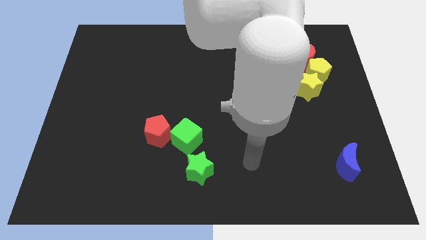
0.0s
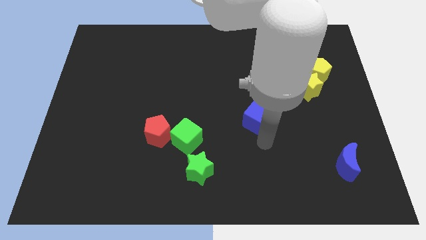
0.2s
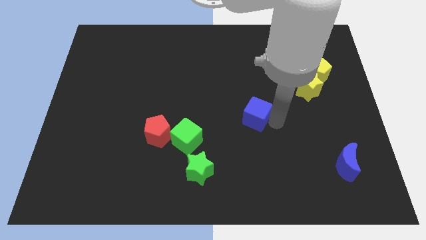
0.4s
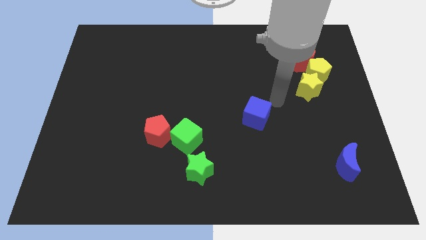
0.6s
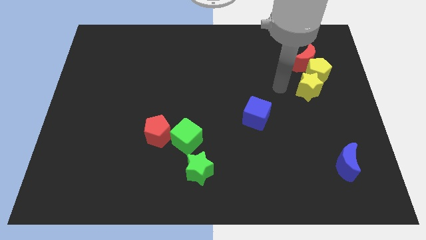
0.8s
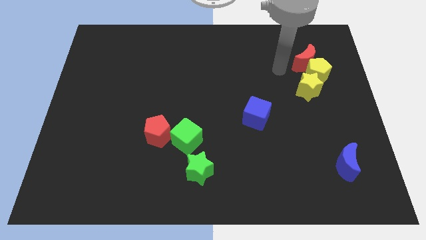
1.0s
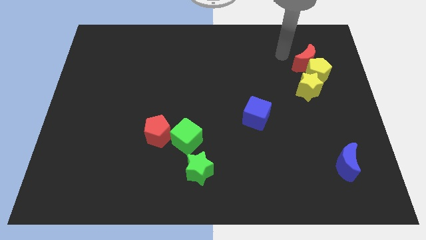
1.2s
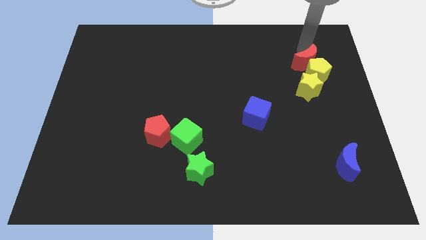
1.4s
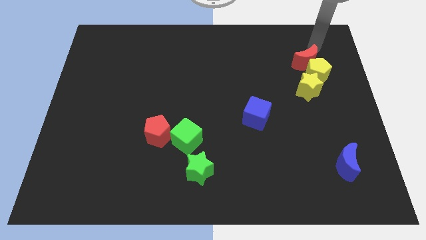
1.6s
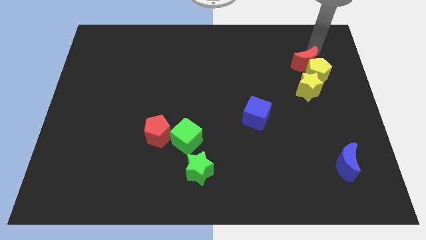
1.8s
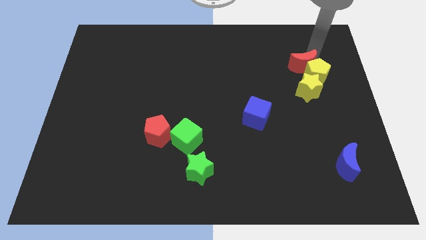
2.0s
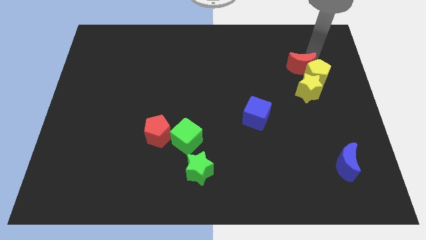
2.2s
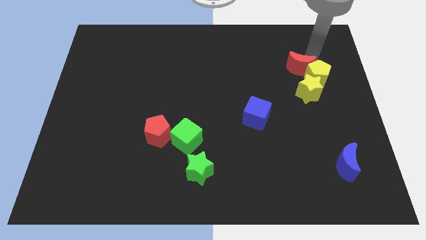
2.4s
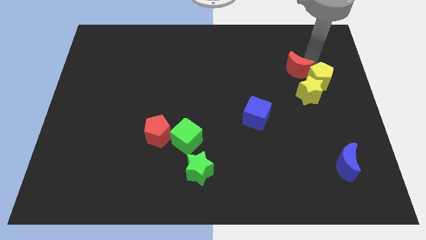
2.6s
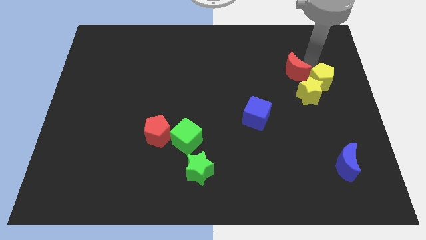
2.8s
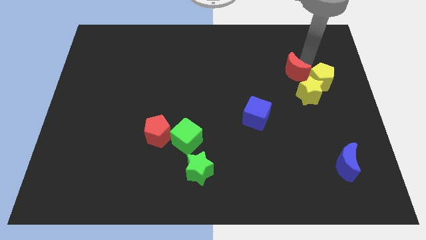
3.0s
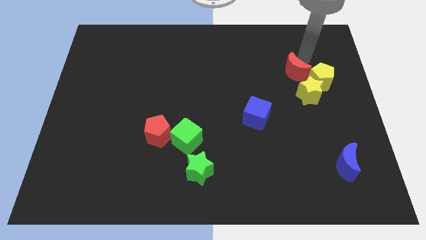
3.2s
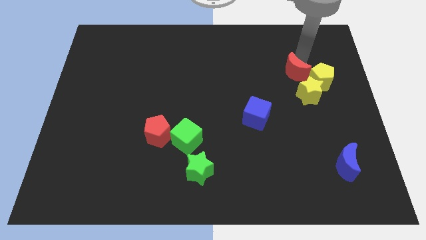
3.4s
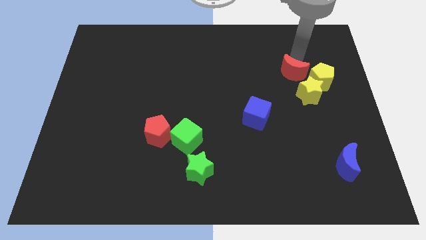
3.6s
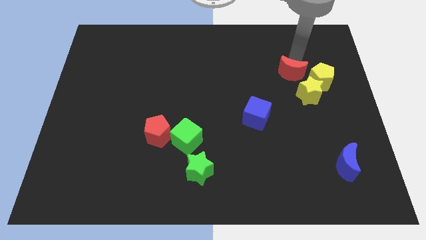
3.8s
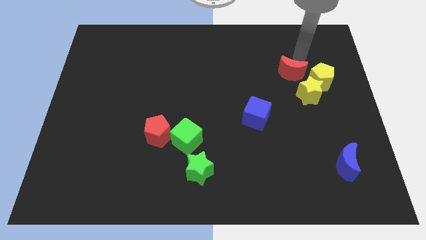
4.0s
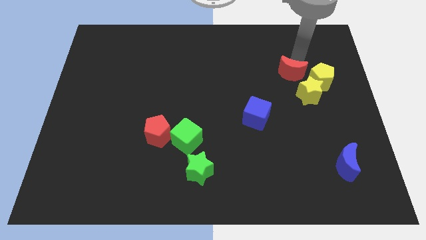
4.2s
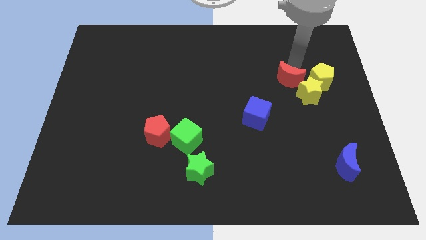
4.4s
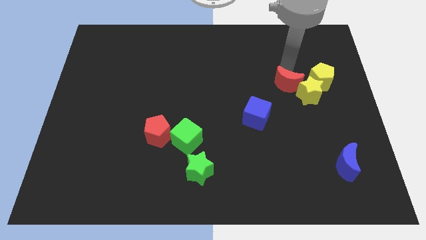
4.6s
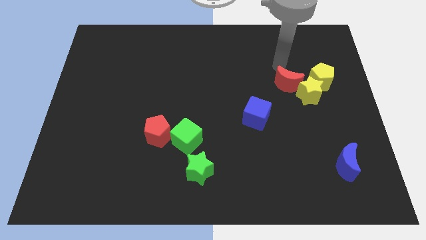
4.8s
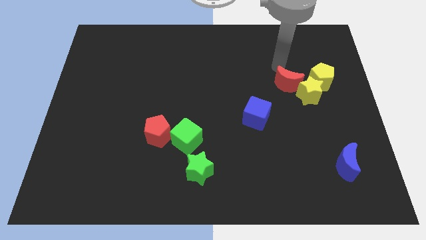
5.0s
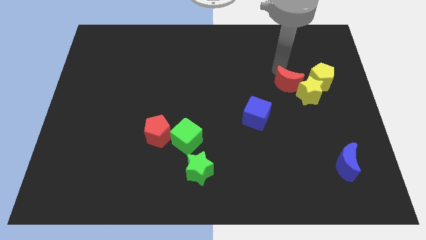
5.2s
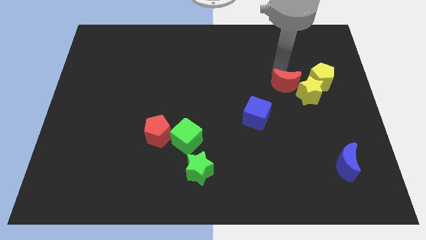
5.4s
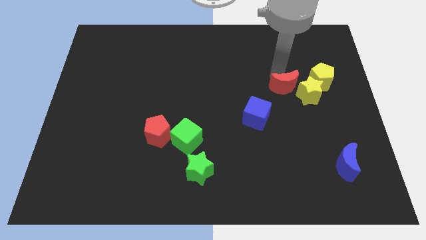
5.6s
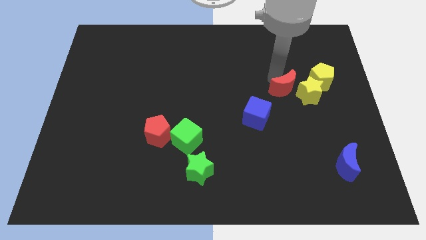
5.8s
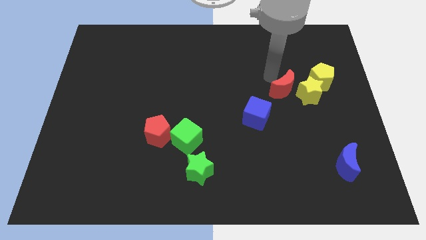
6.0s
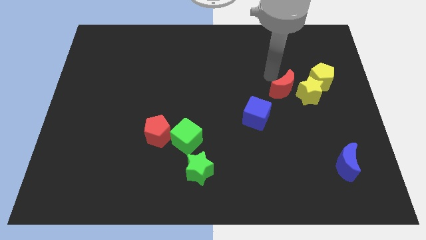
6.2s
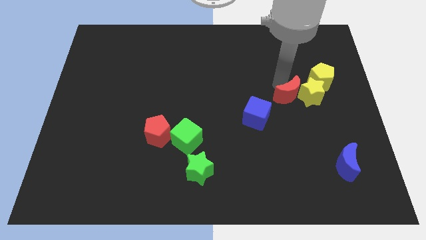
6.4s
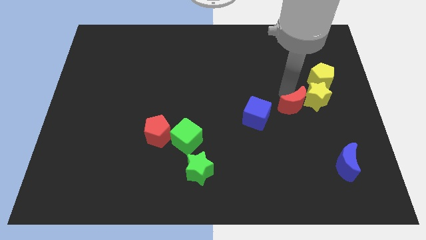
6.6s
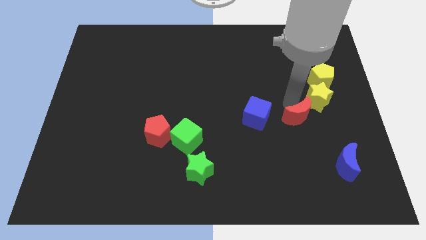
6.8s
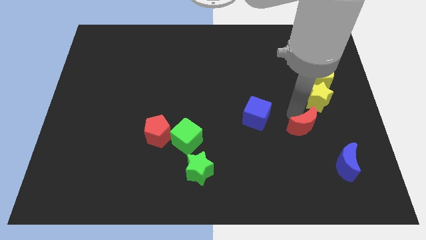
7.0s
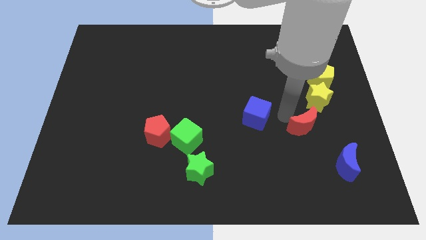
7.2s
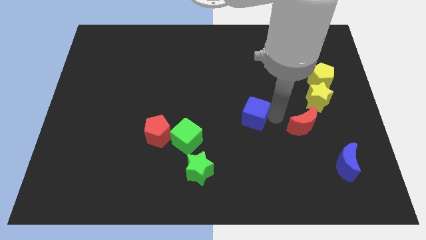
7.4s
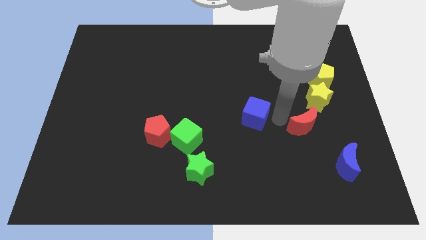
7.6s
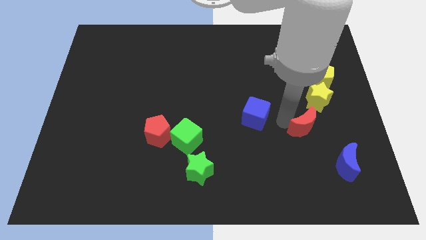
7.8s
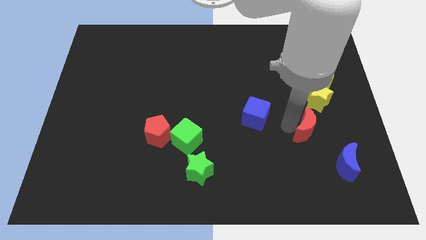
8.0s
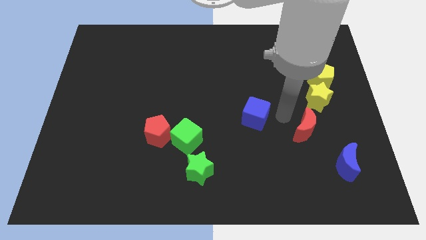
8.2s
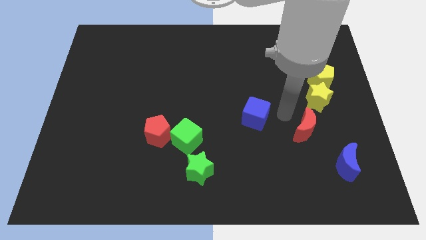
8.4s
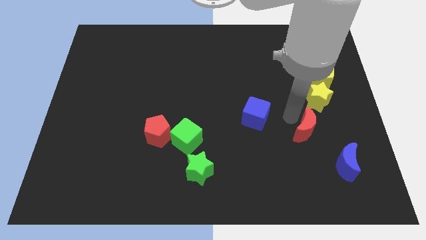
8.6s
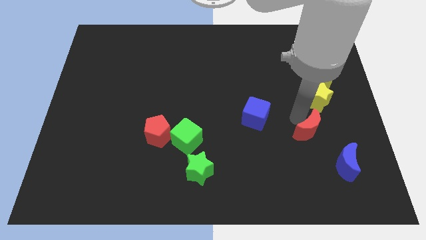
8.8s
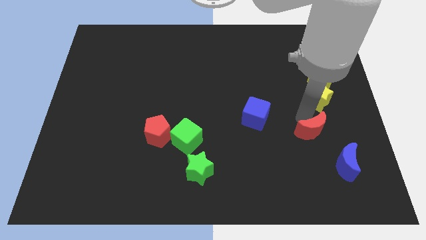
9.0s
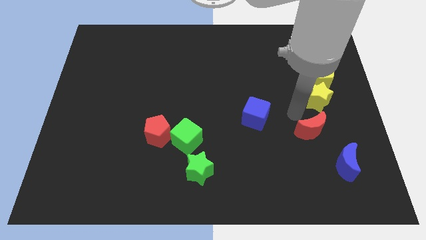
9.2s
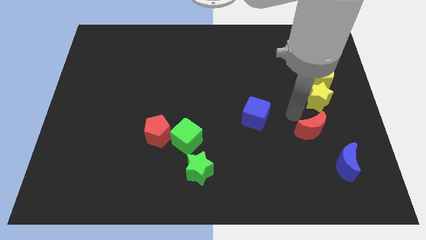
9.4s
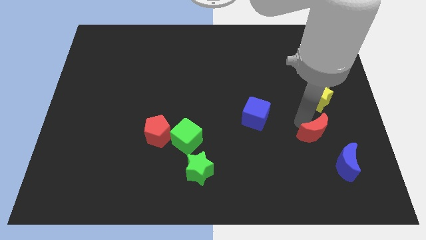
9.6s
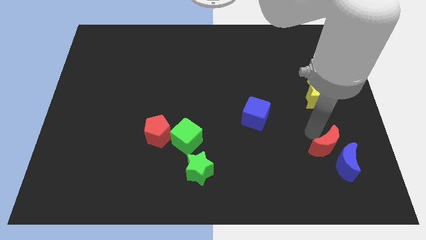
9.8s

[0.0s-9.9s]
push the red moon towards the blue moon

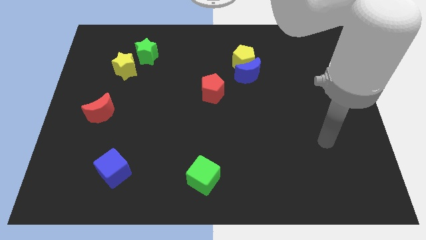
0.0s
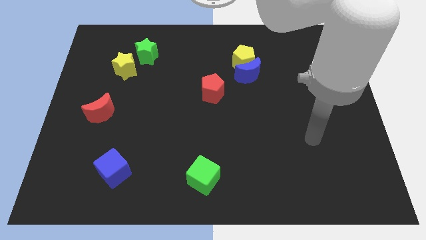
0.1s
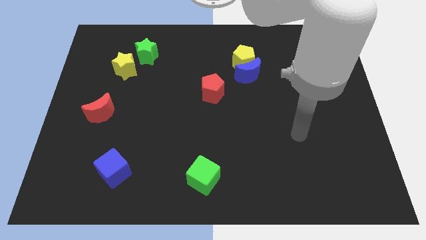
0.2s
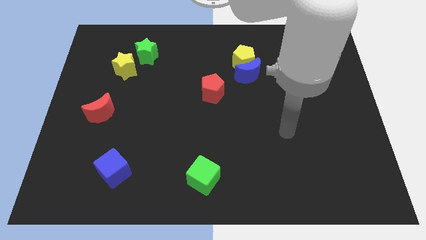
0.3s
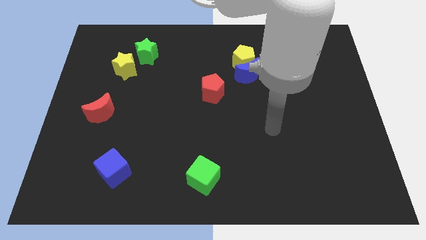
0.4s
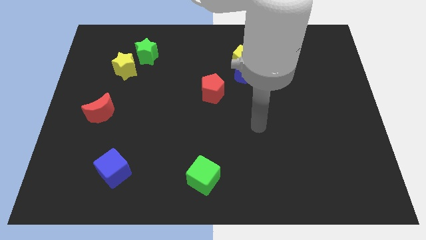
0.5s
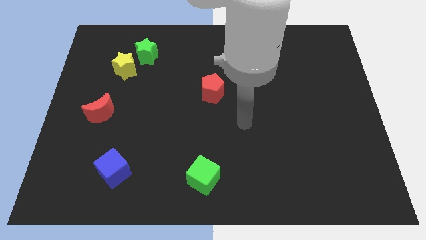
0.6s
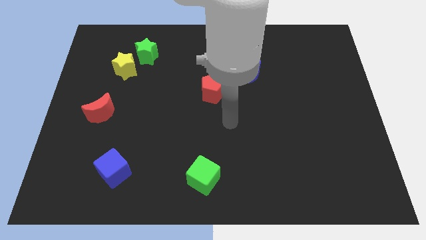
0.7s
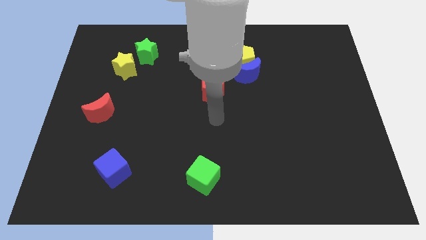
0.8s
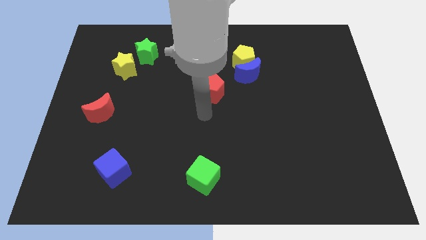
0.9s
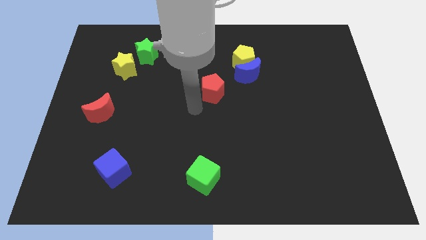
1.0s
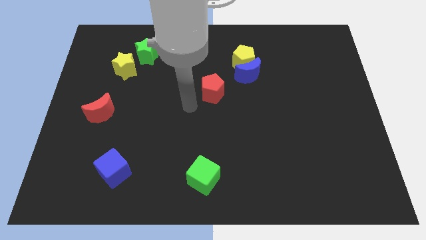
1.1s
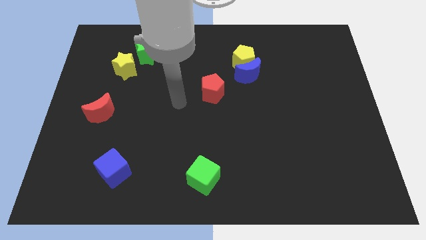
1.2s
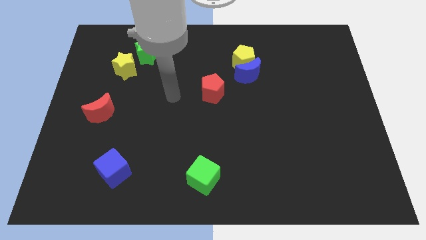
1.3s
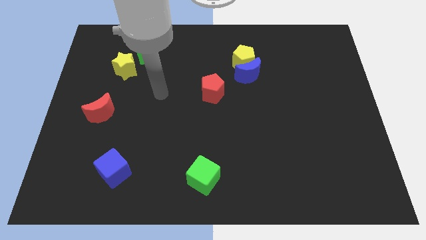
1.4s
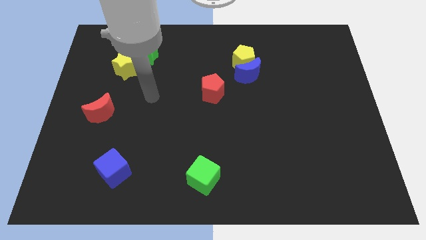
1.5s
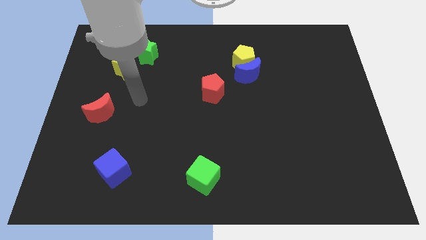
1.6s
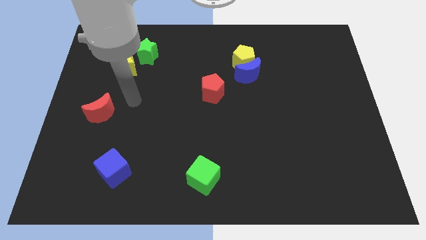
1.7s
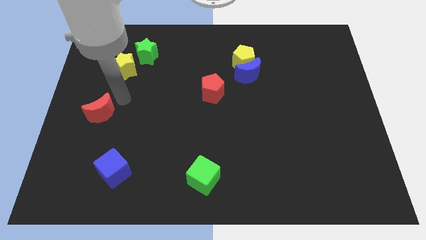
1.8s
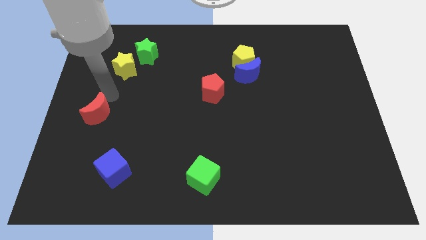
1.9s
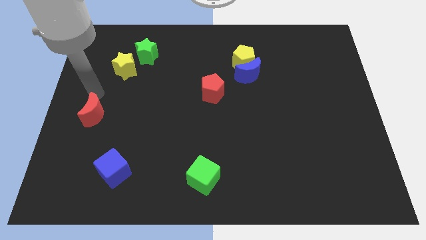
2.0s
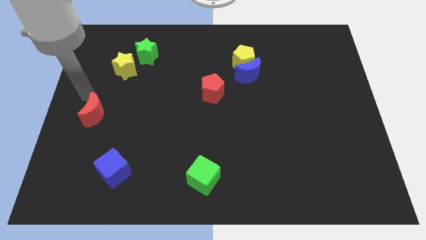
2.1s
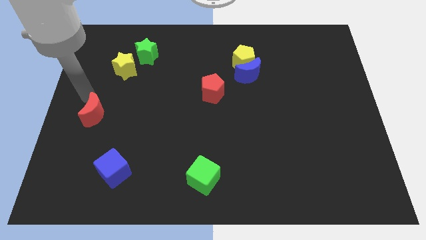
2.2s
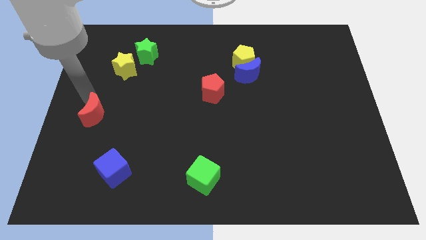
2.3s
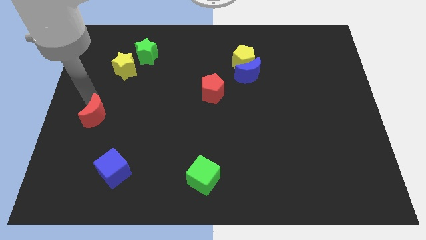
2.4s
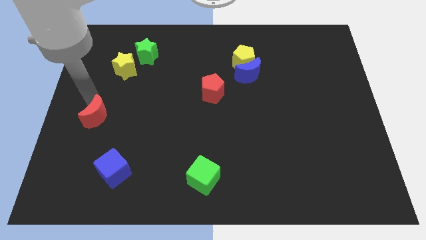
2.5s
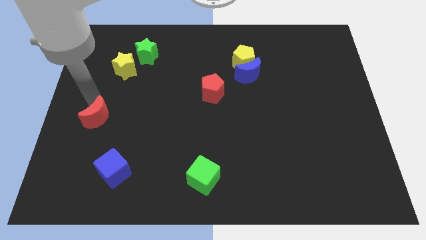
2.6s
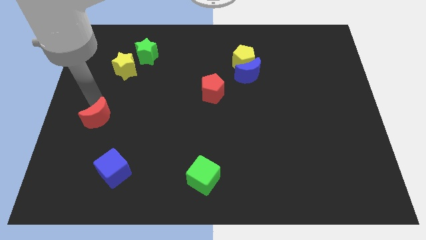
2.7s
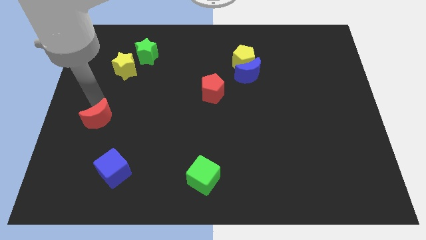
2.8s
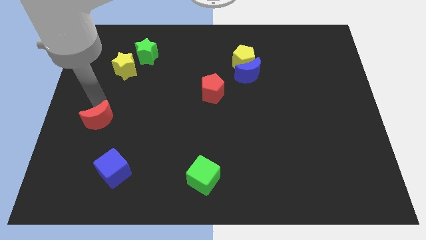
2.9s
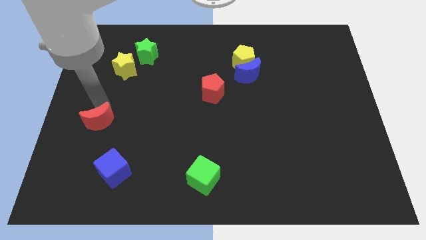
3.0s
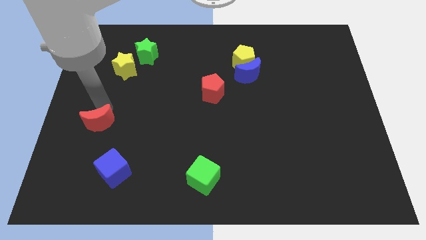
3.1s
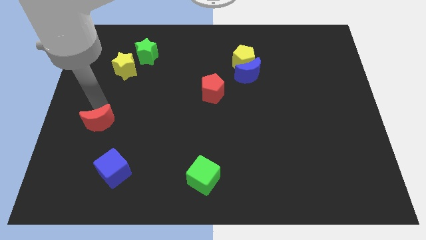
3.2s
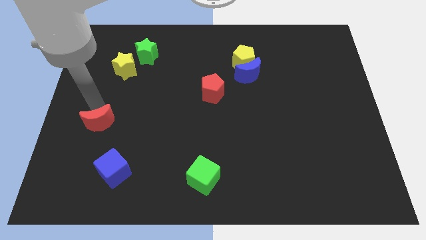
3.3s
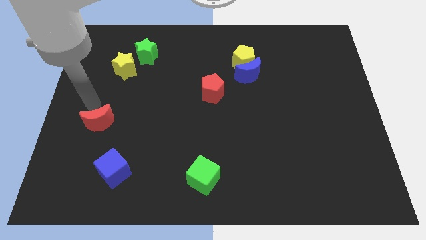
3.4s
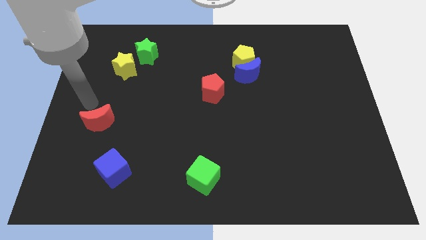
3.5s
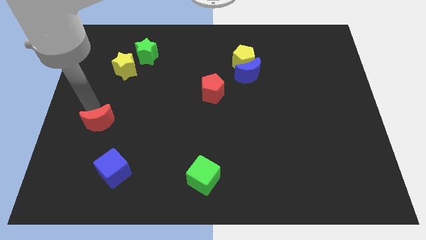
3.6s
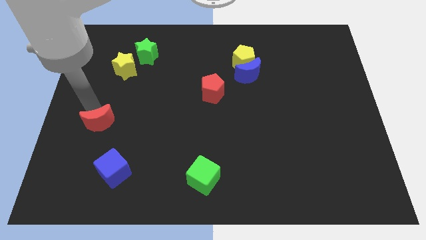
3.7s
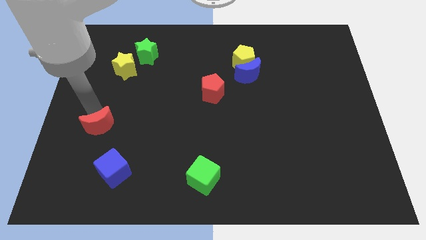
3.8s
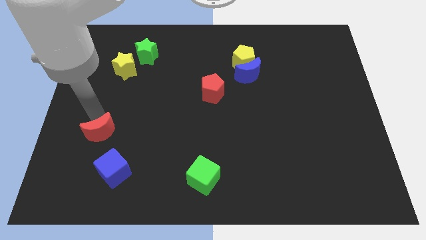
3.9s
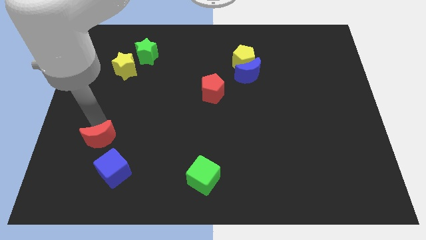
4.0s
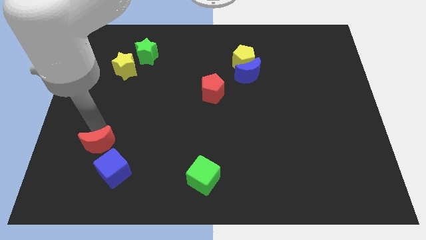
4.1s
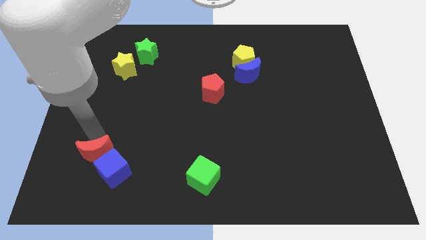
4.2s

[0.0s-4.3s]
slide the red moon towards the blue cube
